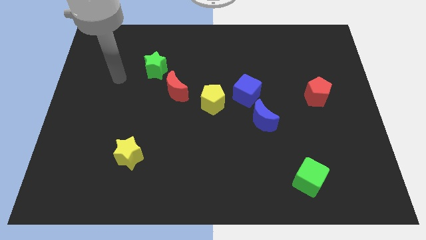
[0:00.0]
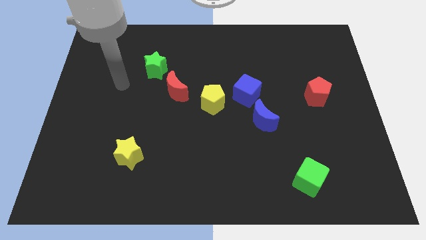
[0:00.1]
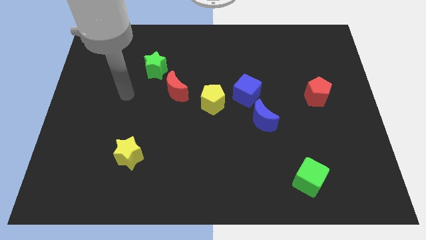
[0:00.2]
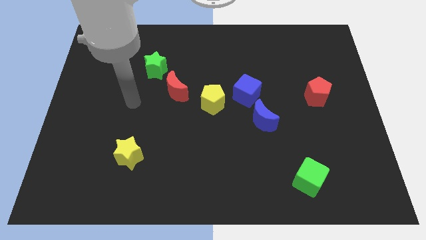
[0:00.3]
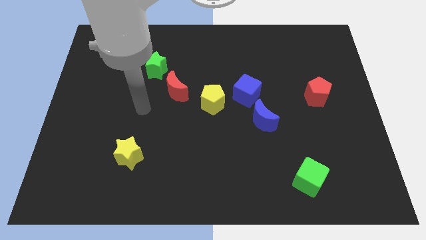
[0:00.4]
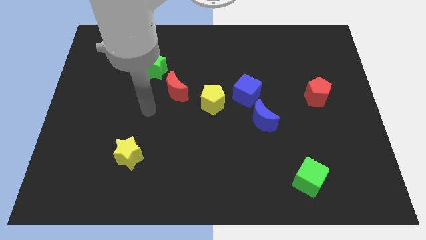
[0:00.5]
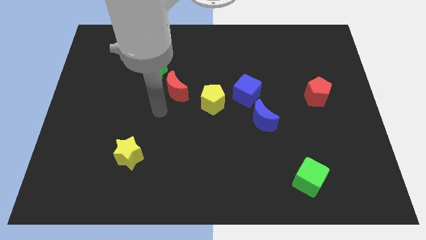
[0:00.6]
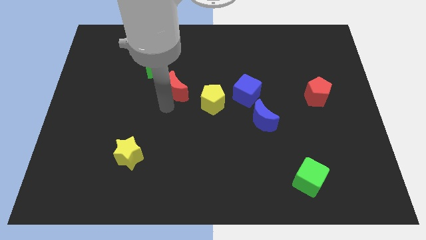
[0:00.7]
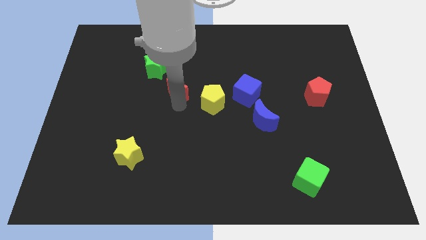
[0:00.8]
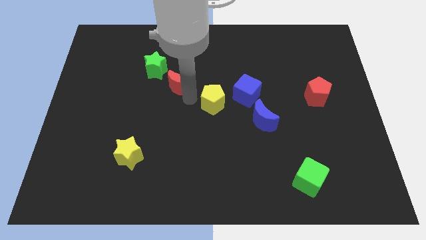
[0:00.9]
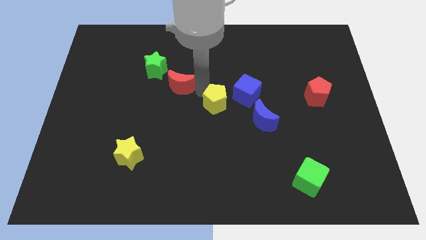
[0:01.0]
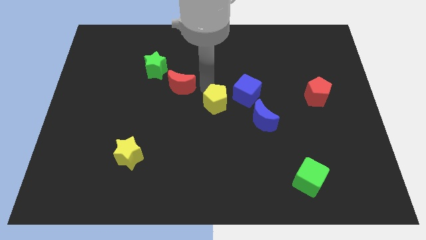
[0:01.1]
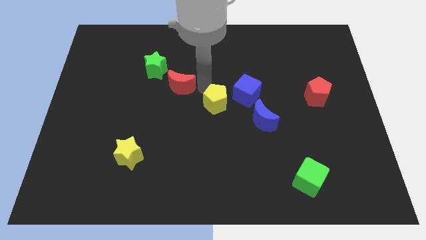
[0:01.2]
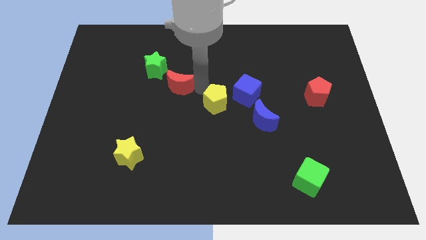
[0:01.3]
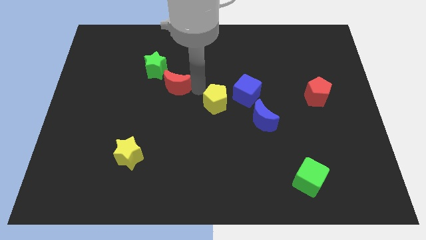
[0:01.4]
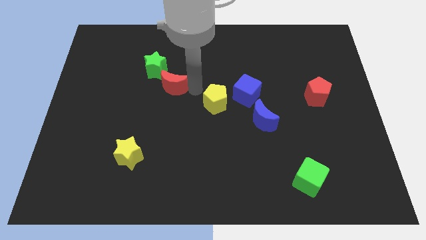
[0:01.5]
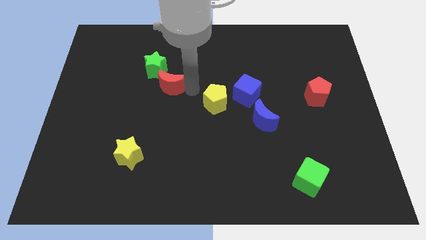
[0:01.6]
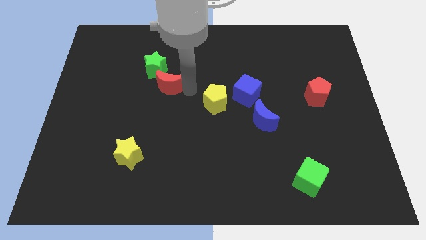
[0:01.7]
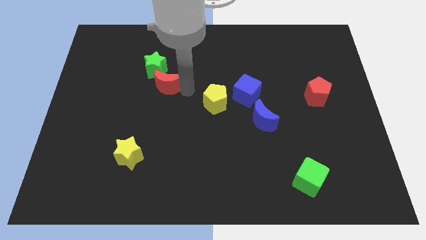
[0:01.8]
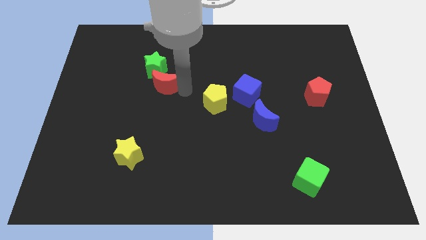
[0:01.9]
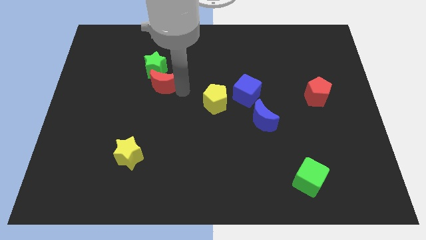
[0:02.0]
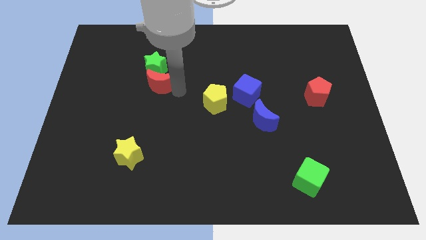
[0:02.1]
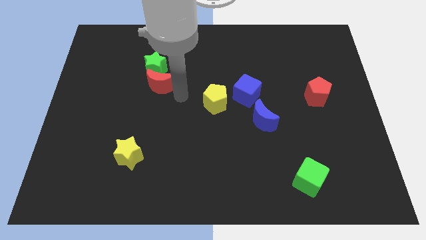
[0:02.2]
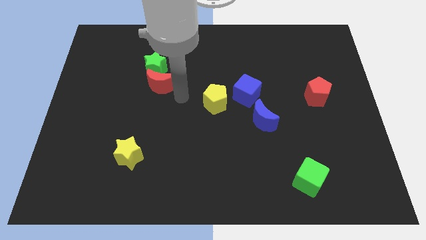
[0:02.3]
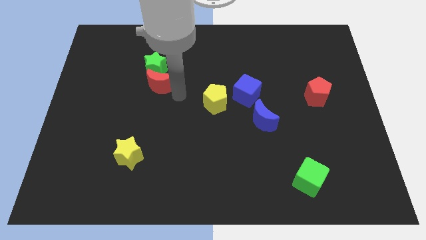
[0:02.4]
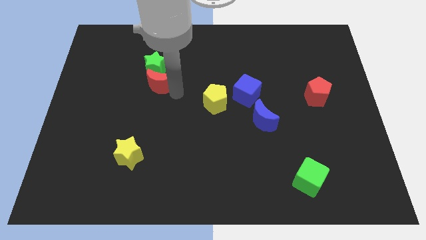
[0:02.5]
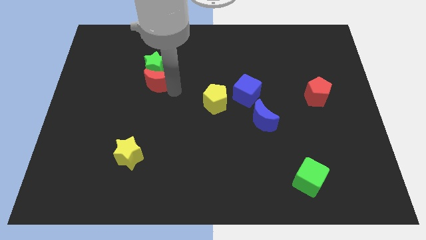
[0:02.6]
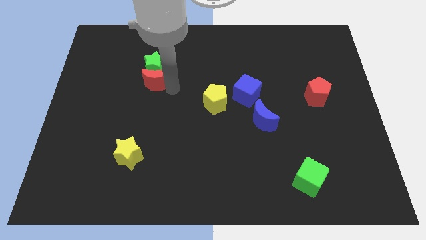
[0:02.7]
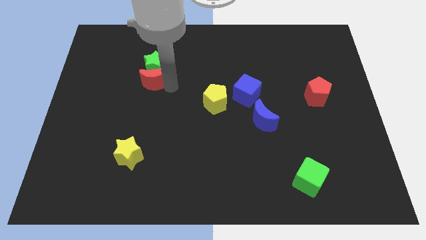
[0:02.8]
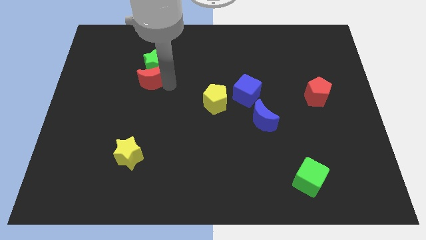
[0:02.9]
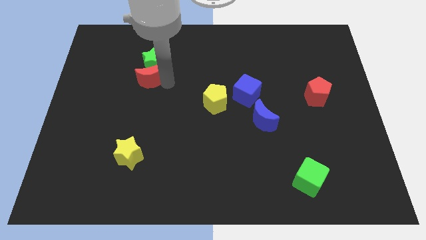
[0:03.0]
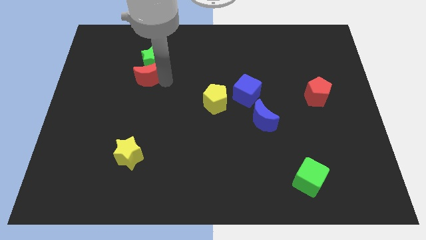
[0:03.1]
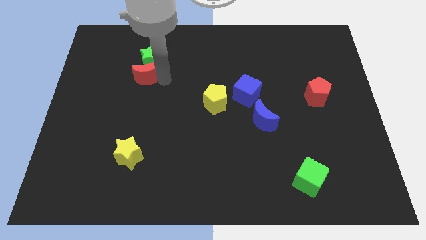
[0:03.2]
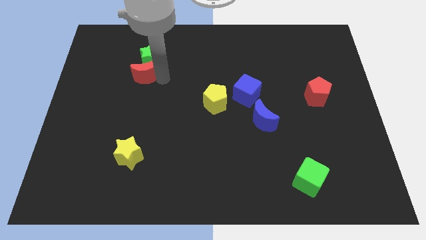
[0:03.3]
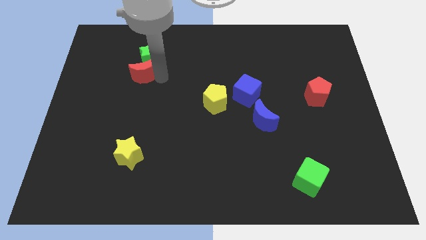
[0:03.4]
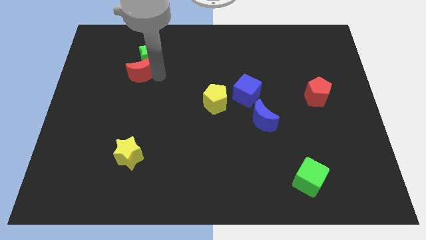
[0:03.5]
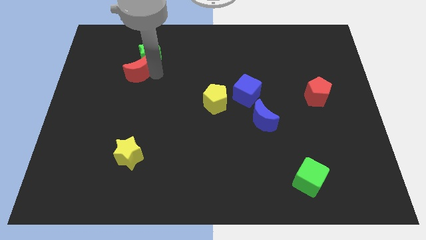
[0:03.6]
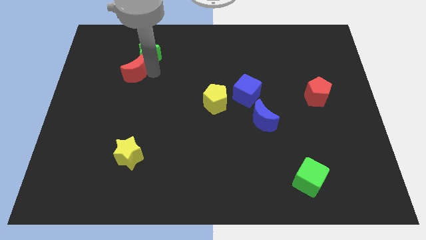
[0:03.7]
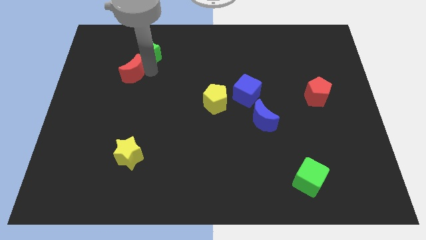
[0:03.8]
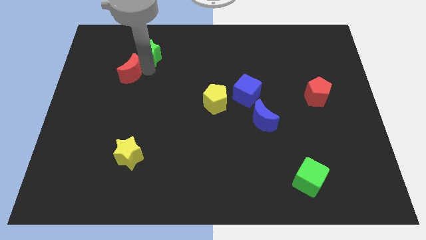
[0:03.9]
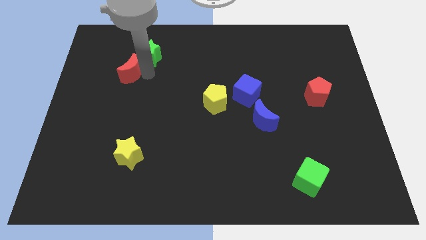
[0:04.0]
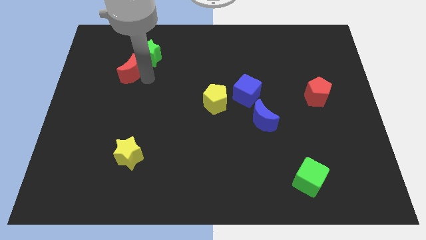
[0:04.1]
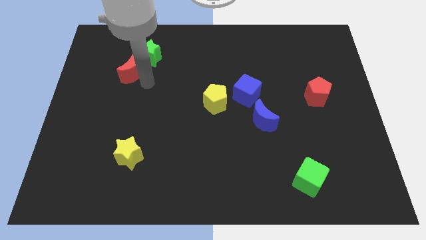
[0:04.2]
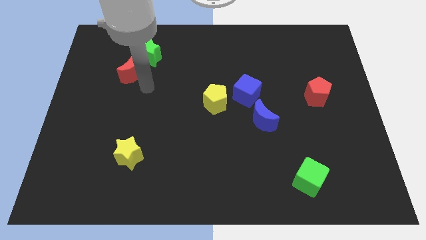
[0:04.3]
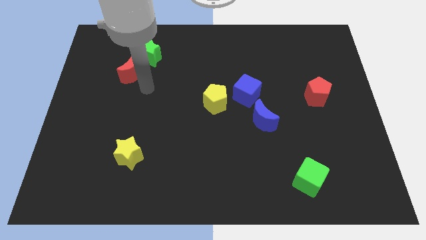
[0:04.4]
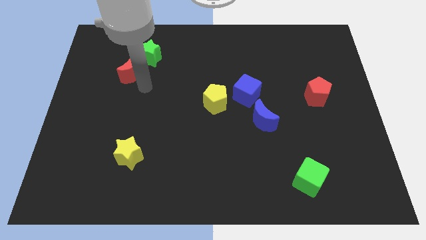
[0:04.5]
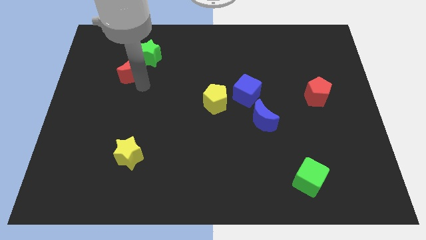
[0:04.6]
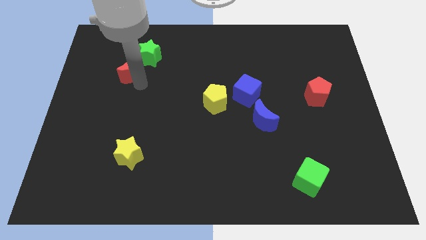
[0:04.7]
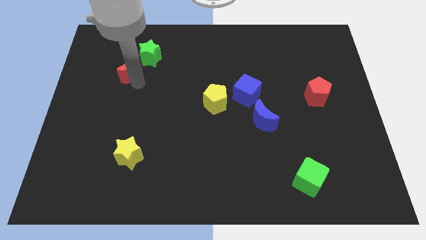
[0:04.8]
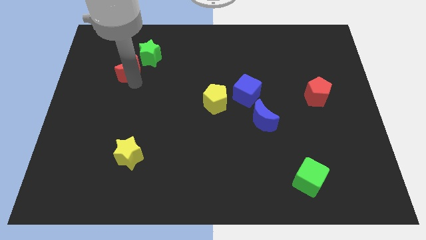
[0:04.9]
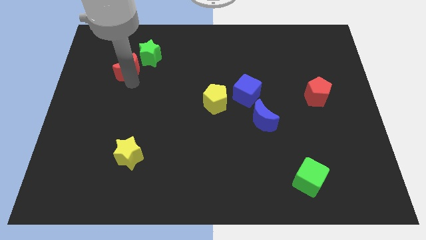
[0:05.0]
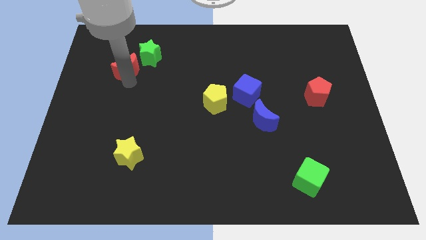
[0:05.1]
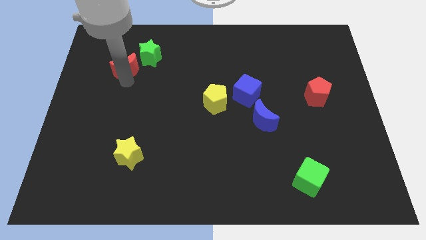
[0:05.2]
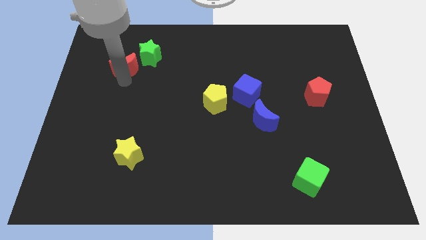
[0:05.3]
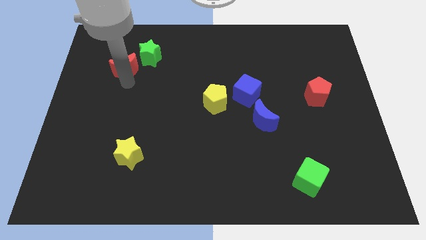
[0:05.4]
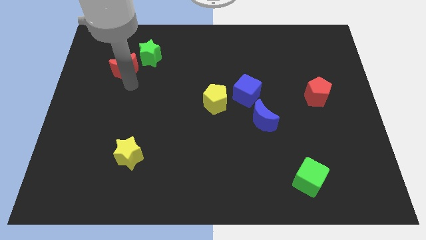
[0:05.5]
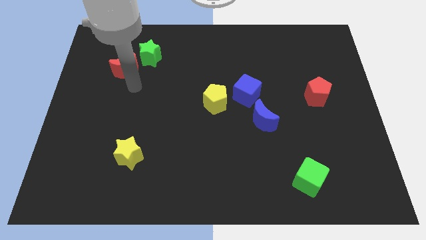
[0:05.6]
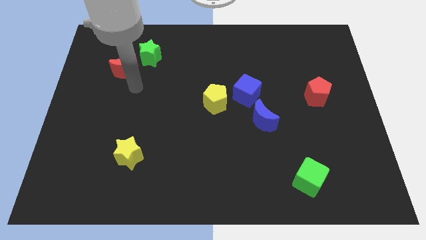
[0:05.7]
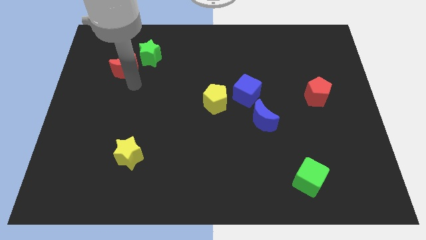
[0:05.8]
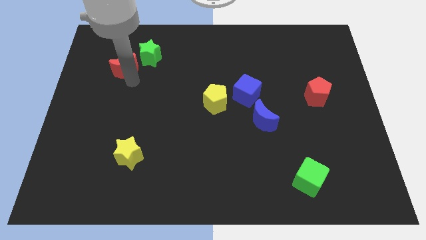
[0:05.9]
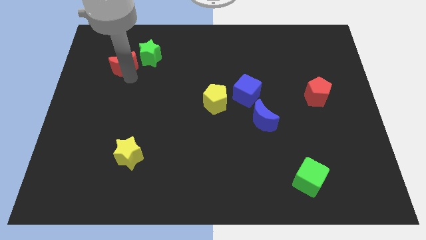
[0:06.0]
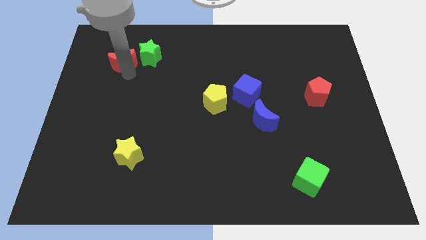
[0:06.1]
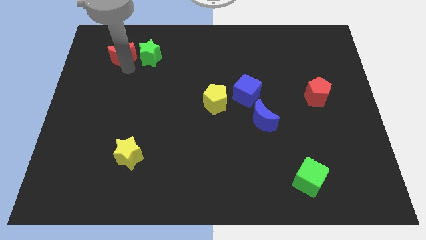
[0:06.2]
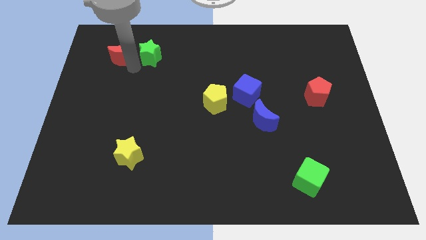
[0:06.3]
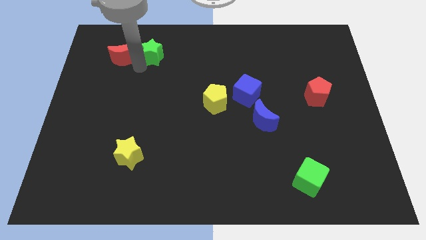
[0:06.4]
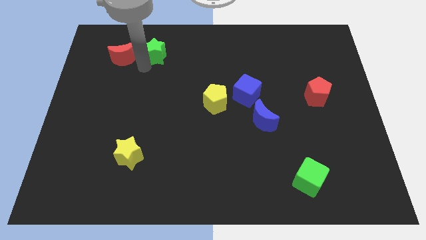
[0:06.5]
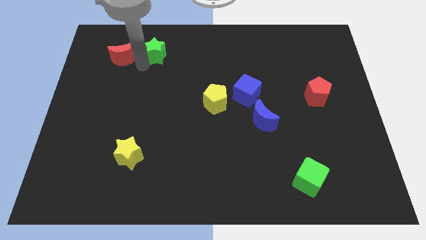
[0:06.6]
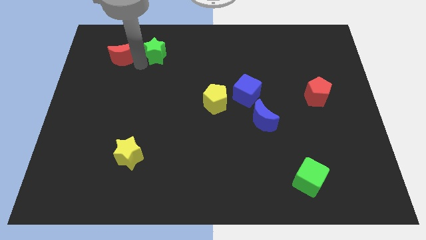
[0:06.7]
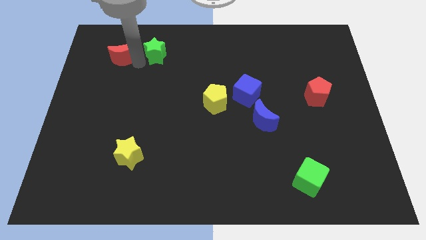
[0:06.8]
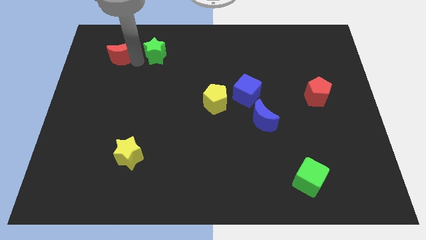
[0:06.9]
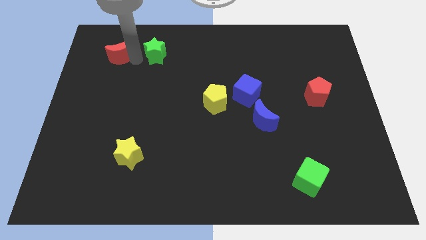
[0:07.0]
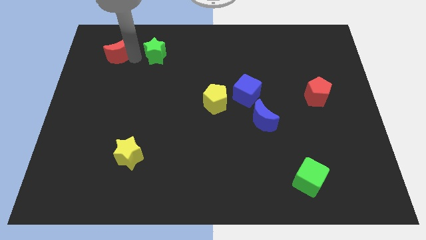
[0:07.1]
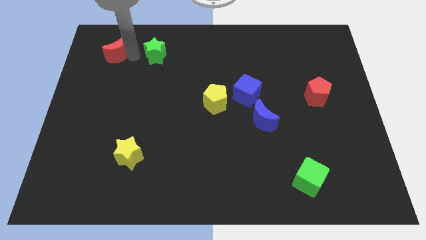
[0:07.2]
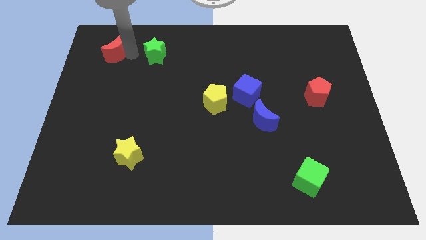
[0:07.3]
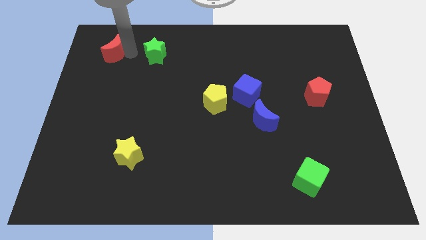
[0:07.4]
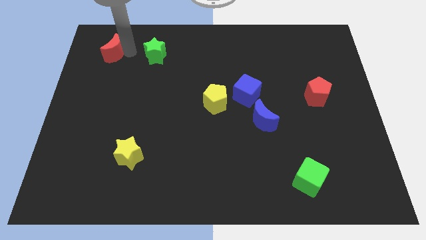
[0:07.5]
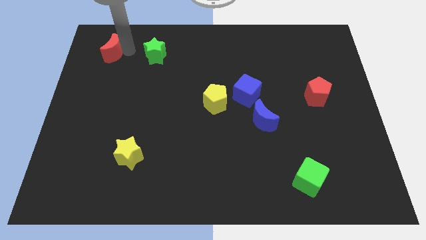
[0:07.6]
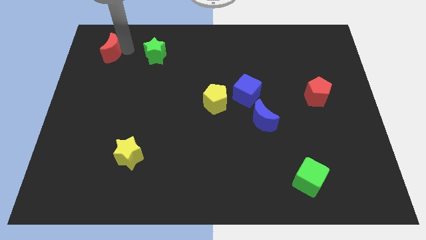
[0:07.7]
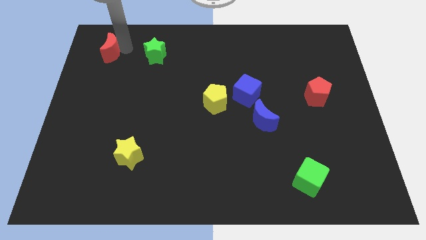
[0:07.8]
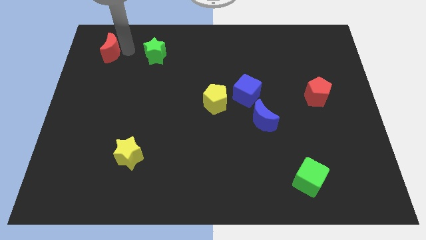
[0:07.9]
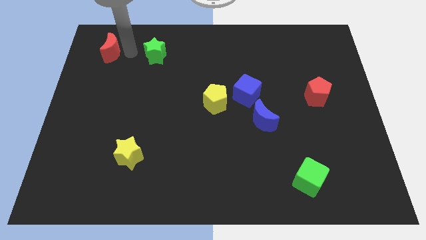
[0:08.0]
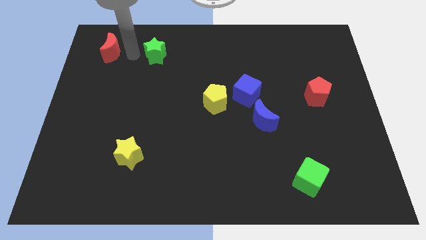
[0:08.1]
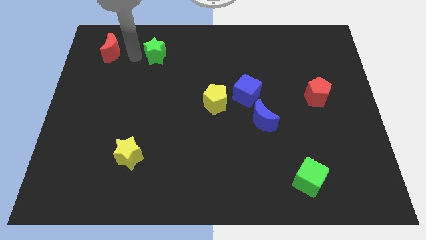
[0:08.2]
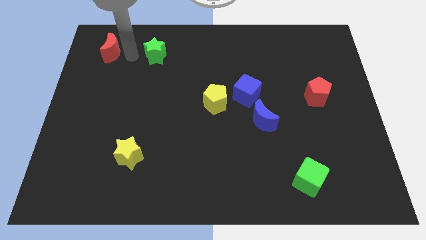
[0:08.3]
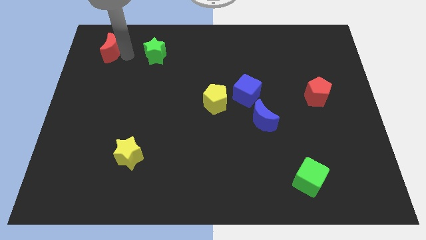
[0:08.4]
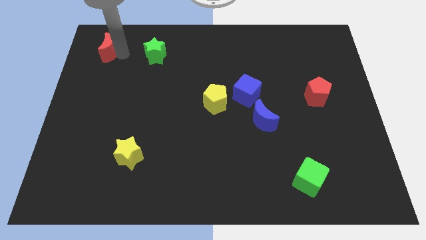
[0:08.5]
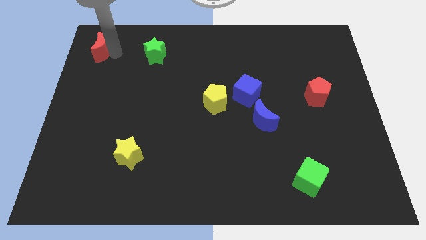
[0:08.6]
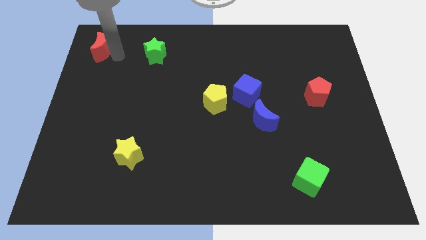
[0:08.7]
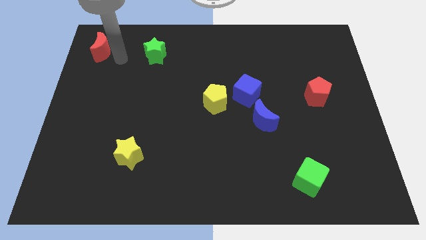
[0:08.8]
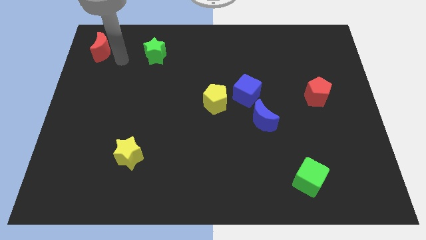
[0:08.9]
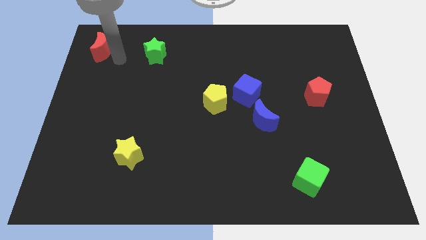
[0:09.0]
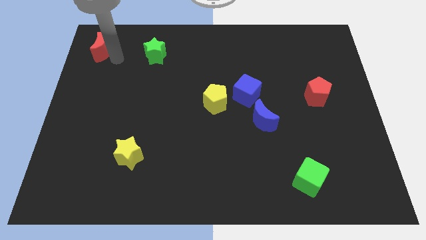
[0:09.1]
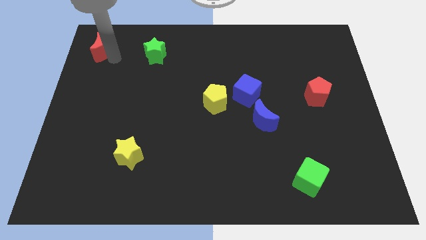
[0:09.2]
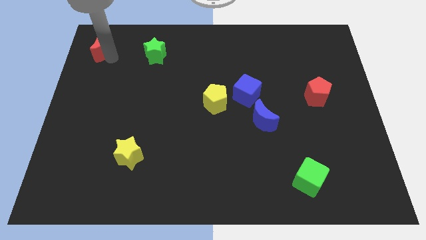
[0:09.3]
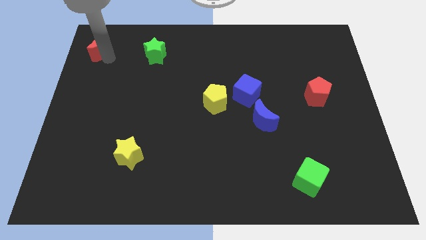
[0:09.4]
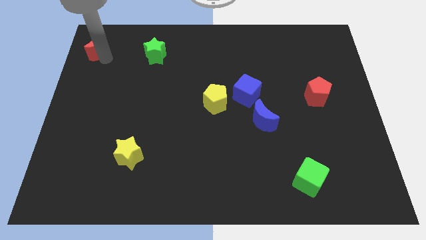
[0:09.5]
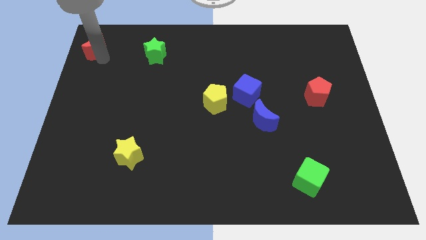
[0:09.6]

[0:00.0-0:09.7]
slide the red moon to the top left corner
